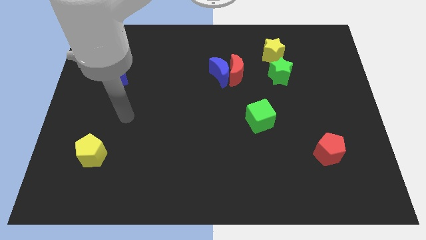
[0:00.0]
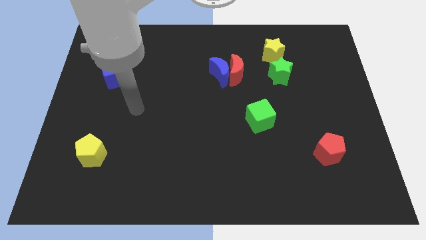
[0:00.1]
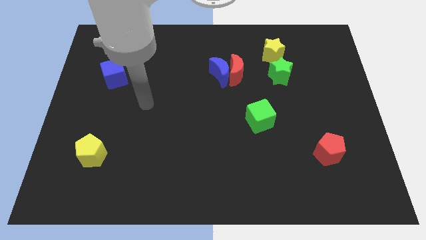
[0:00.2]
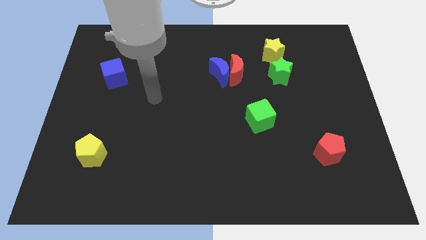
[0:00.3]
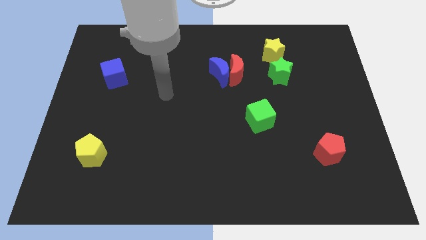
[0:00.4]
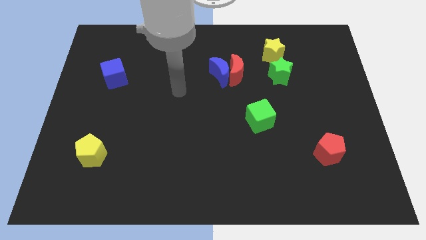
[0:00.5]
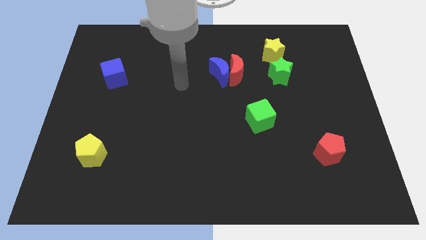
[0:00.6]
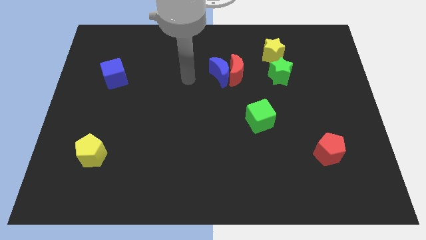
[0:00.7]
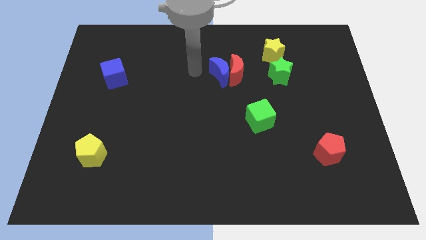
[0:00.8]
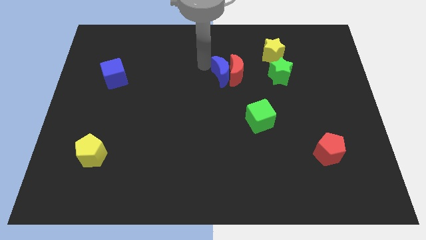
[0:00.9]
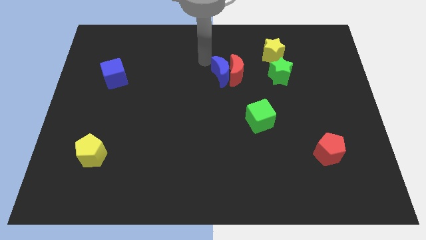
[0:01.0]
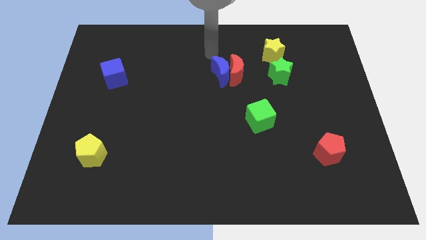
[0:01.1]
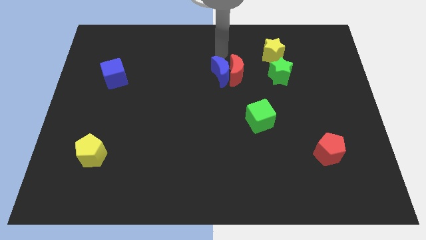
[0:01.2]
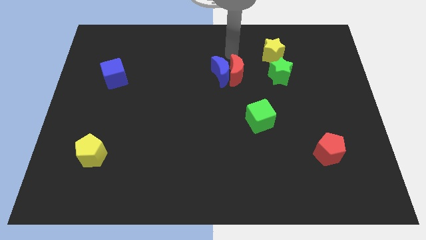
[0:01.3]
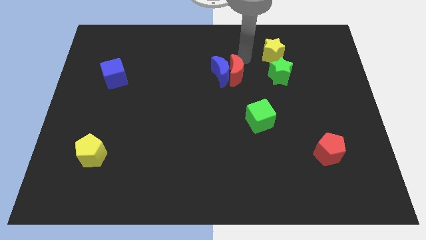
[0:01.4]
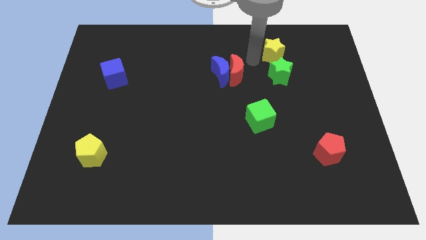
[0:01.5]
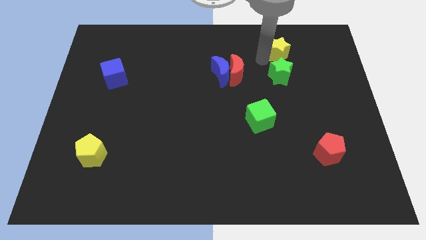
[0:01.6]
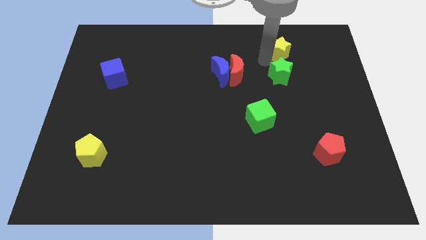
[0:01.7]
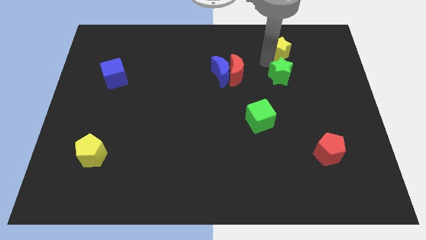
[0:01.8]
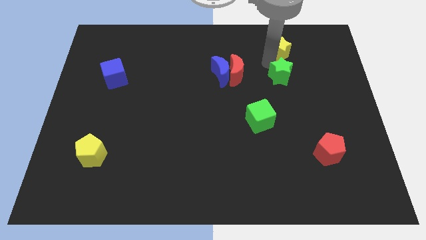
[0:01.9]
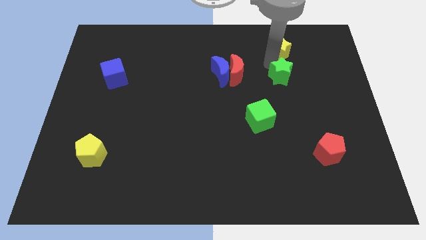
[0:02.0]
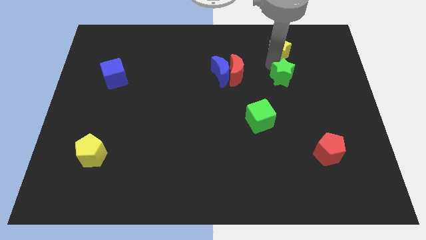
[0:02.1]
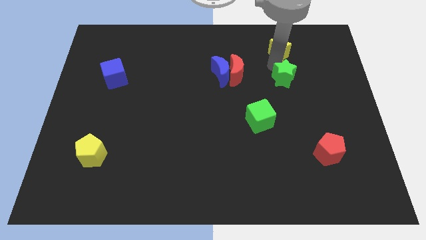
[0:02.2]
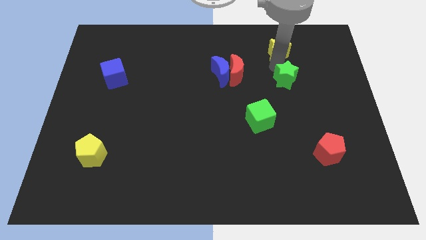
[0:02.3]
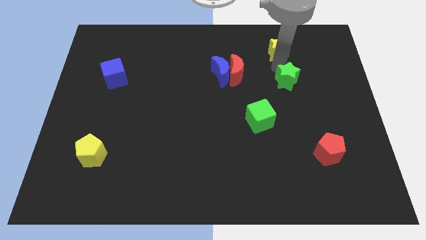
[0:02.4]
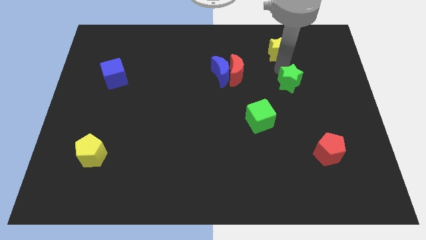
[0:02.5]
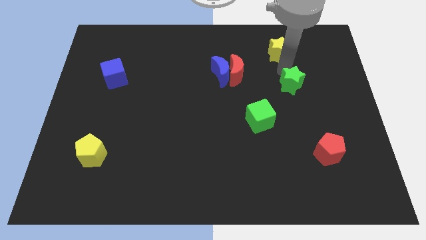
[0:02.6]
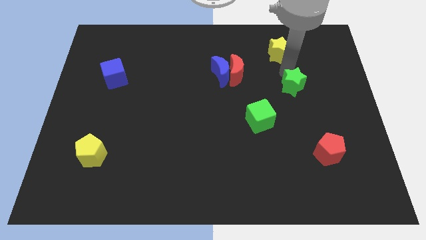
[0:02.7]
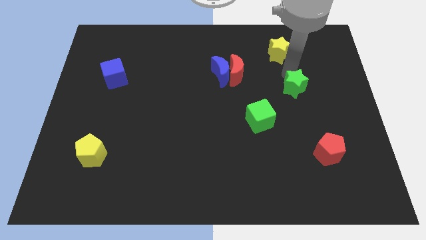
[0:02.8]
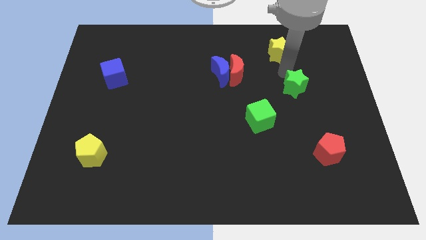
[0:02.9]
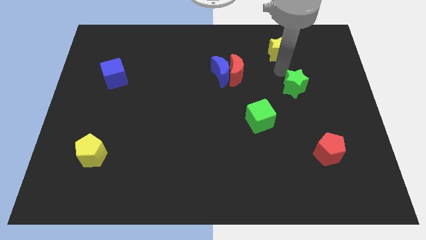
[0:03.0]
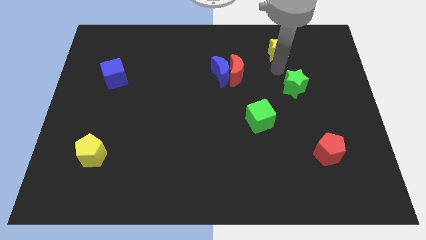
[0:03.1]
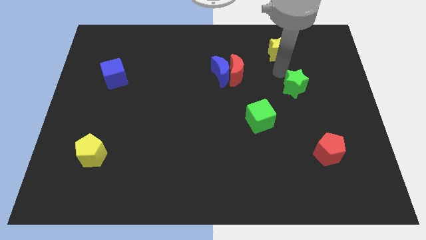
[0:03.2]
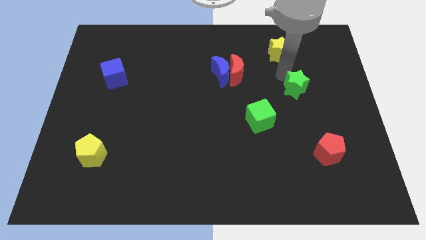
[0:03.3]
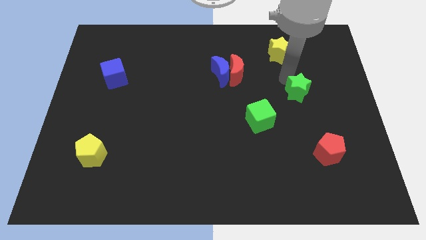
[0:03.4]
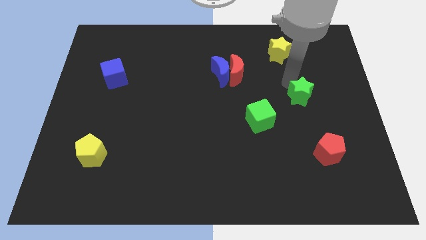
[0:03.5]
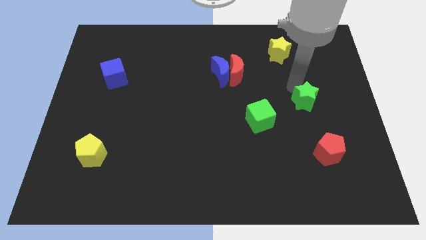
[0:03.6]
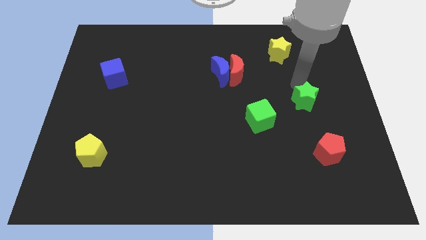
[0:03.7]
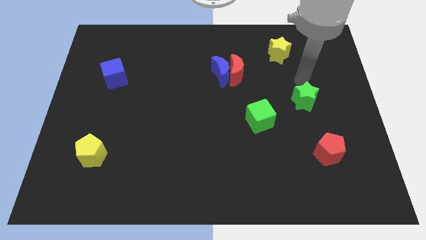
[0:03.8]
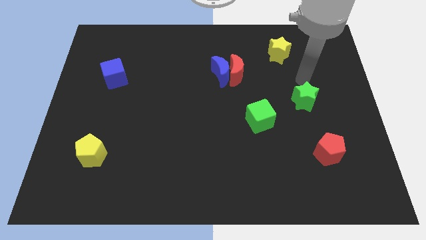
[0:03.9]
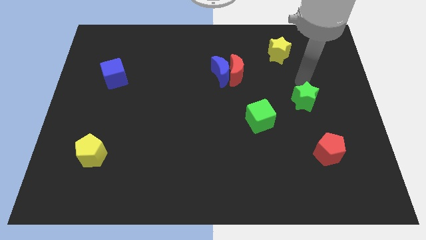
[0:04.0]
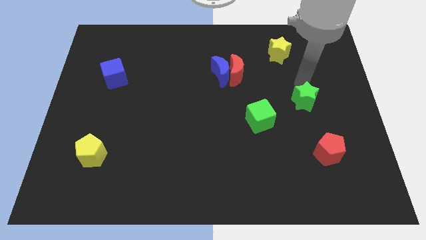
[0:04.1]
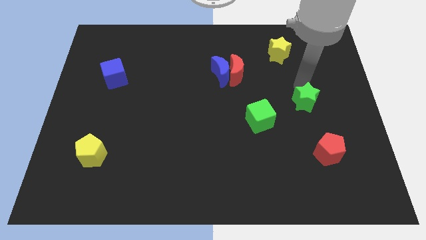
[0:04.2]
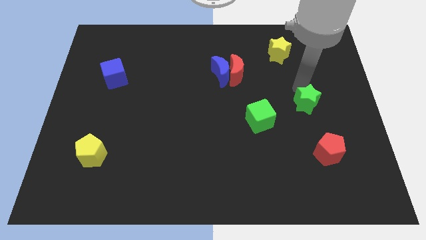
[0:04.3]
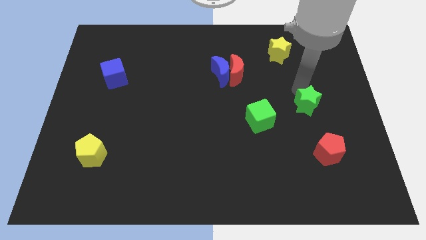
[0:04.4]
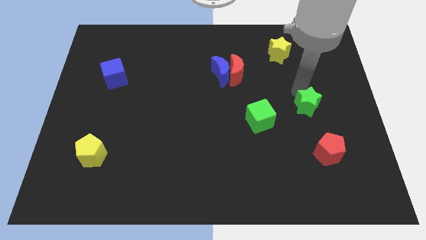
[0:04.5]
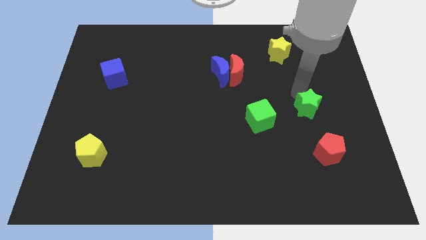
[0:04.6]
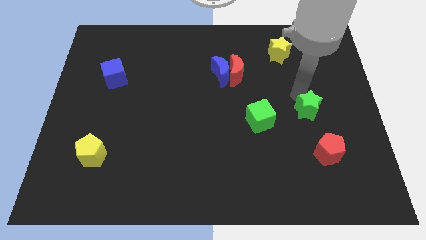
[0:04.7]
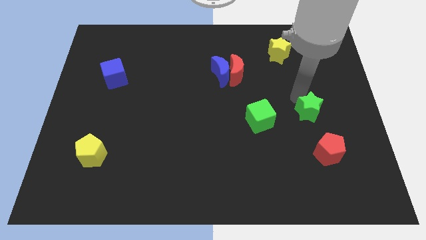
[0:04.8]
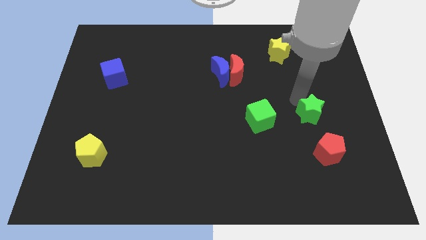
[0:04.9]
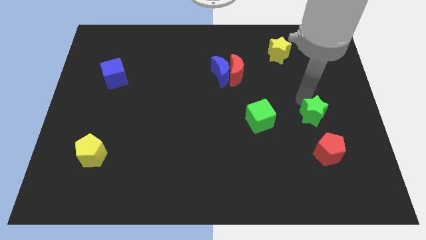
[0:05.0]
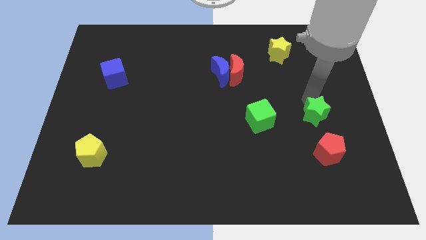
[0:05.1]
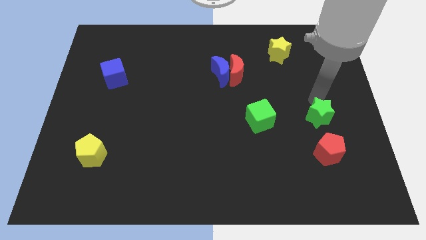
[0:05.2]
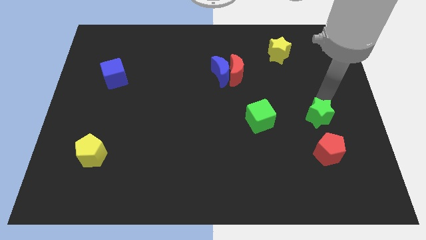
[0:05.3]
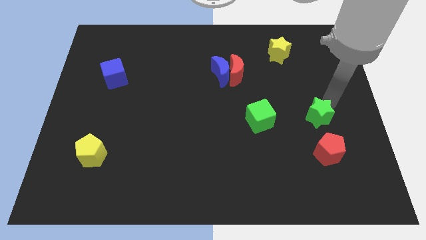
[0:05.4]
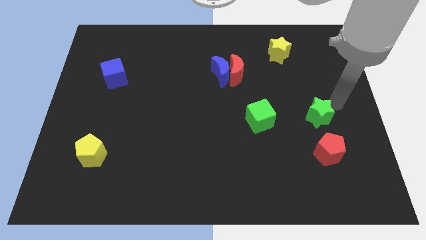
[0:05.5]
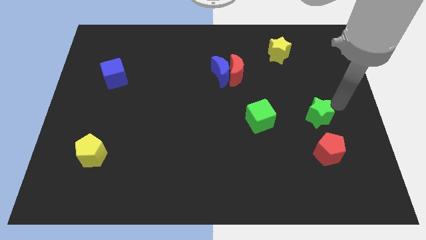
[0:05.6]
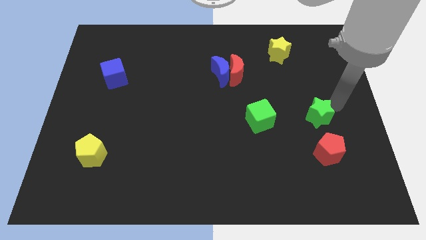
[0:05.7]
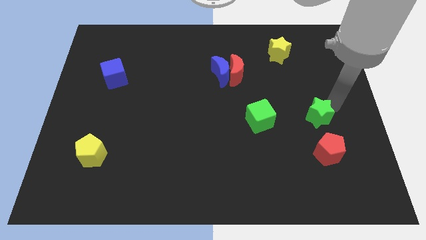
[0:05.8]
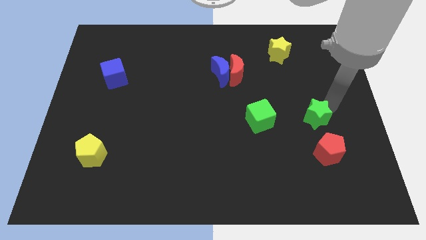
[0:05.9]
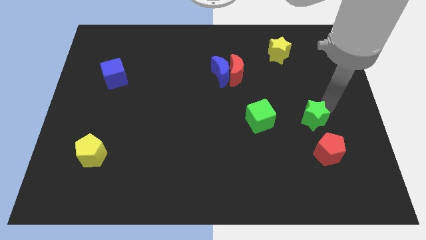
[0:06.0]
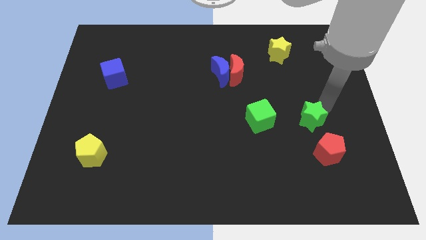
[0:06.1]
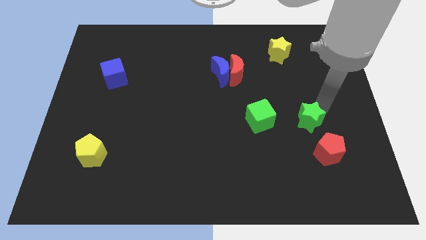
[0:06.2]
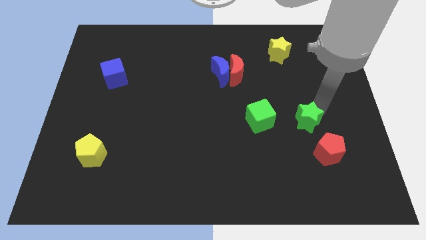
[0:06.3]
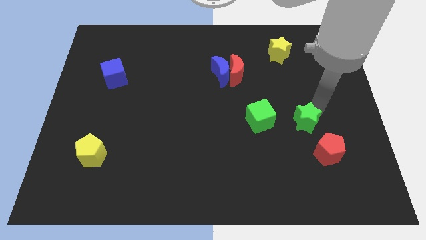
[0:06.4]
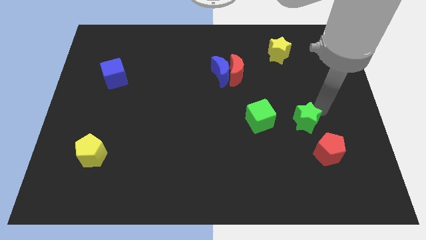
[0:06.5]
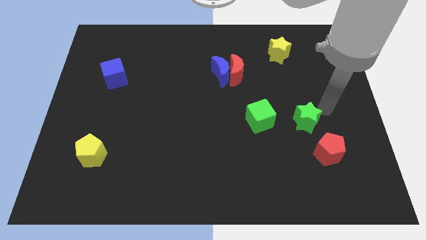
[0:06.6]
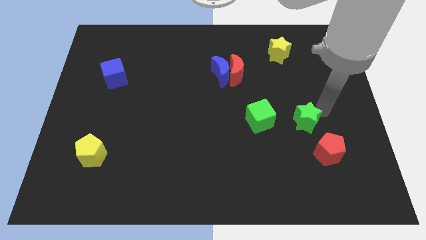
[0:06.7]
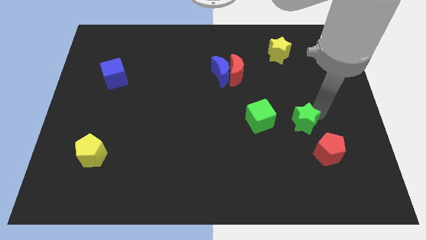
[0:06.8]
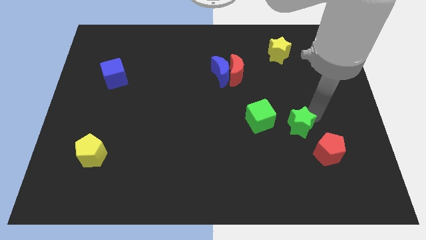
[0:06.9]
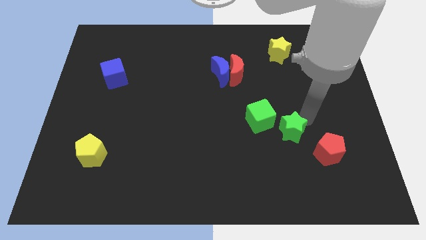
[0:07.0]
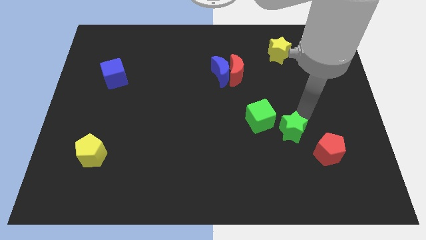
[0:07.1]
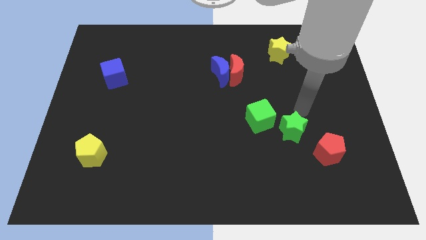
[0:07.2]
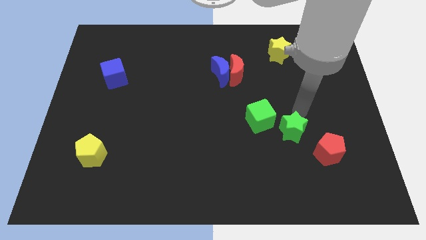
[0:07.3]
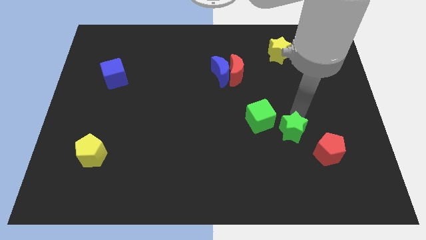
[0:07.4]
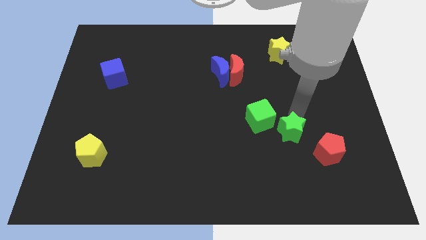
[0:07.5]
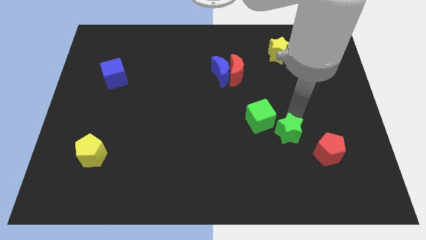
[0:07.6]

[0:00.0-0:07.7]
move the green star just left of the red pentagon
